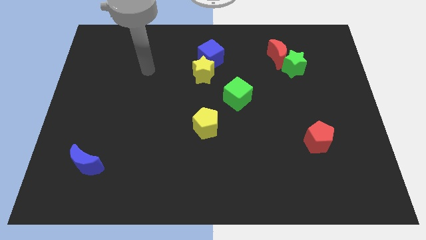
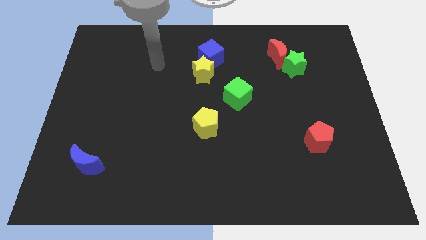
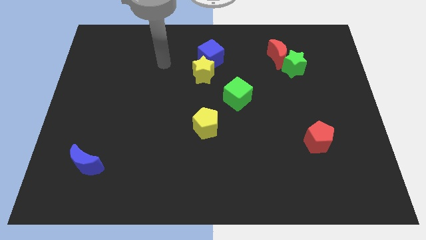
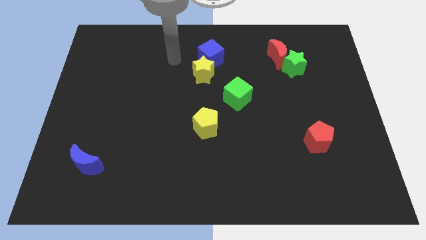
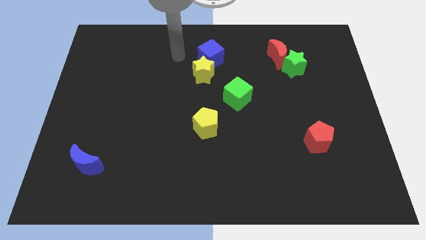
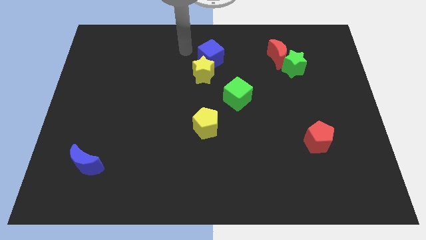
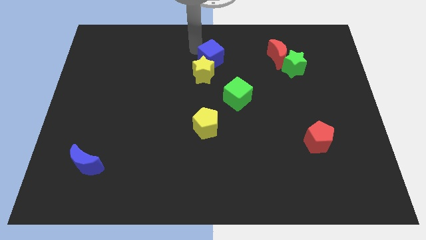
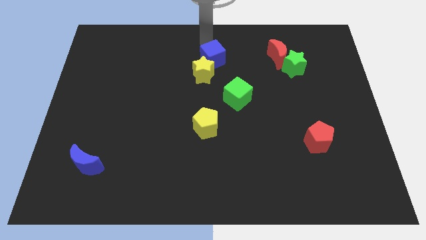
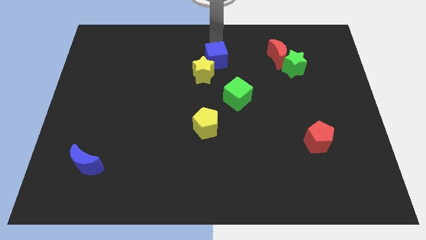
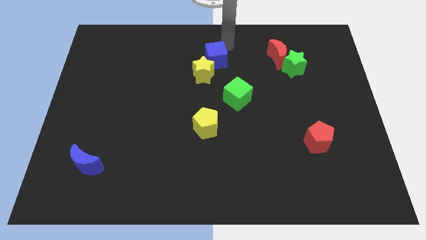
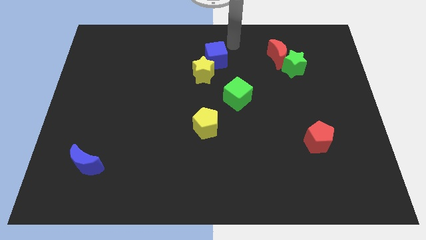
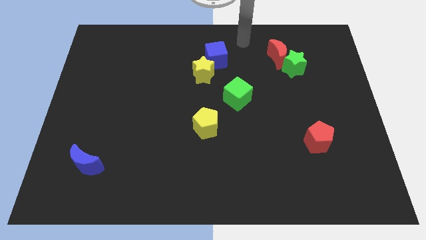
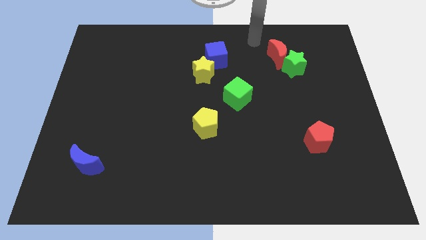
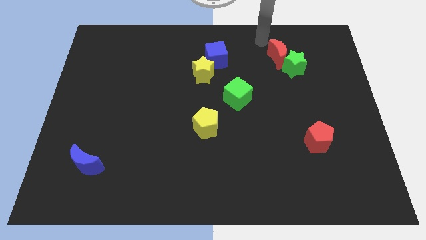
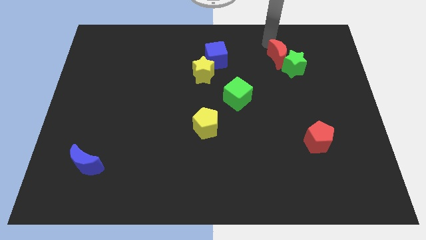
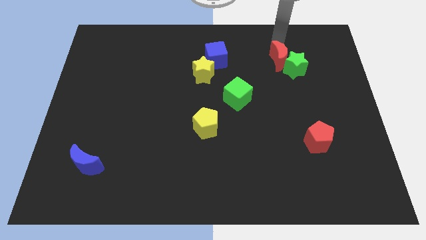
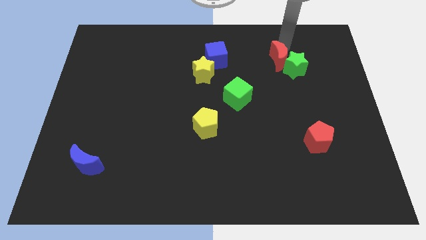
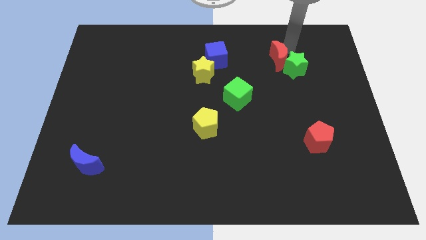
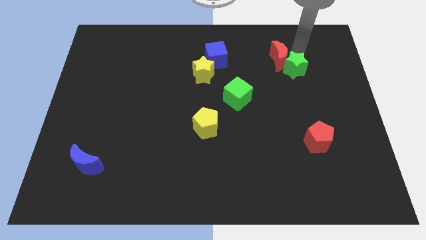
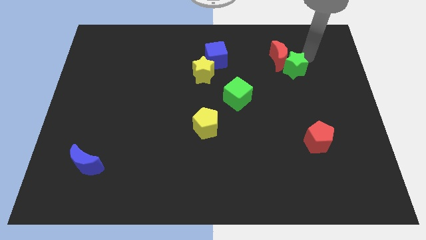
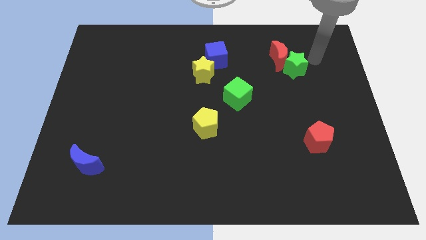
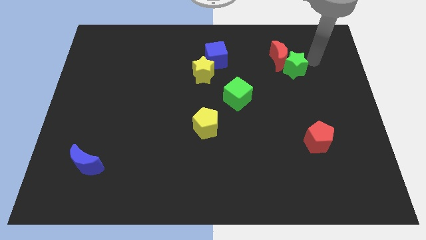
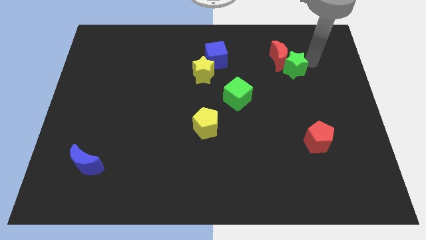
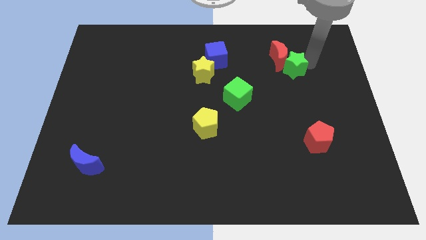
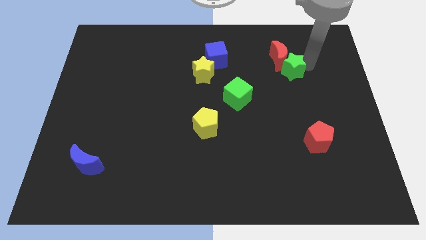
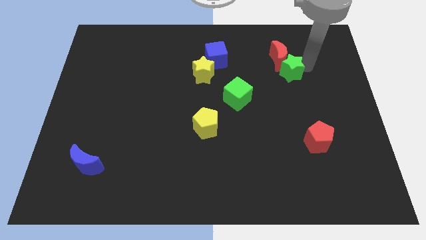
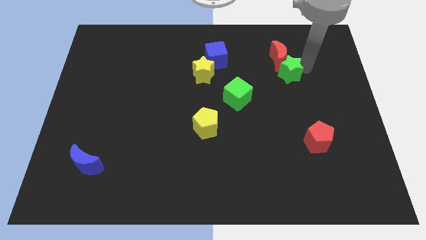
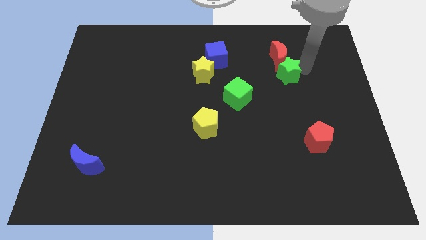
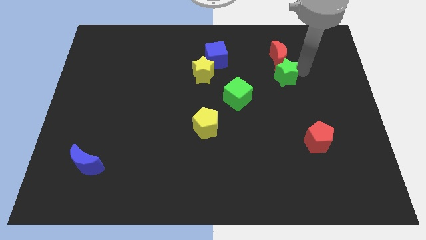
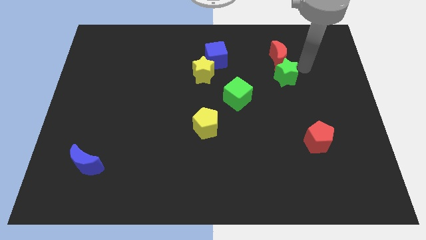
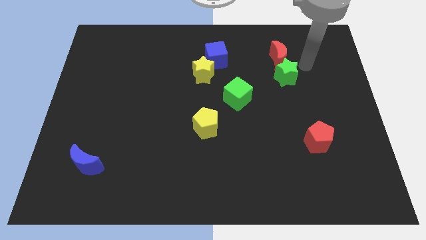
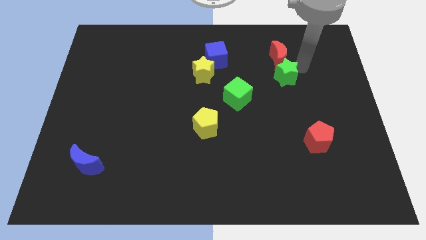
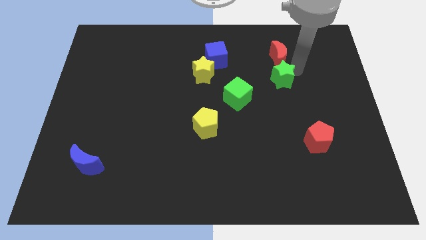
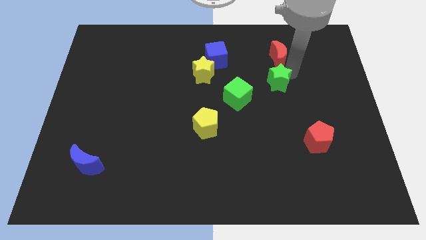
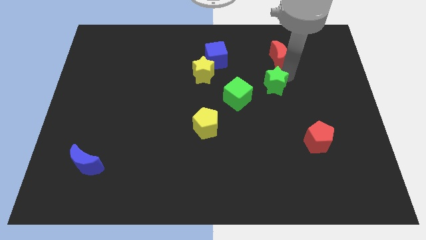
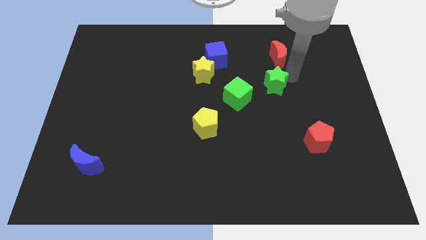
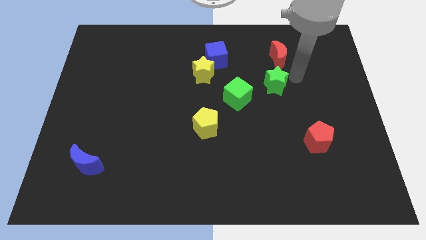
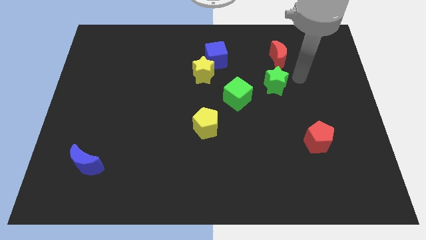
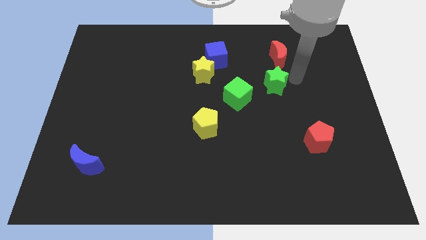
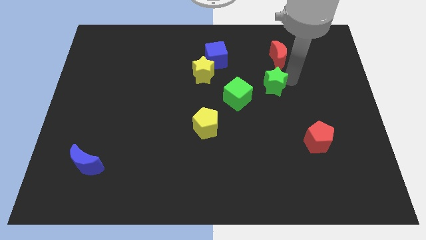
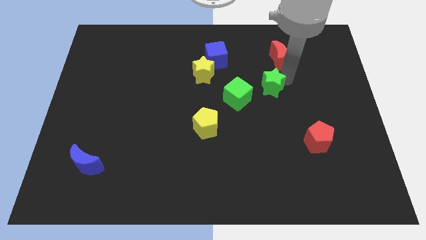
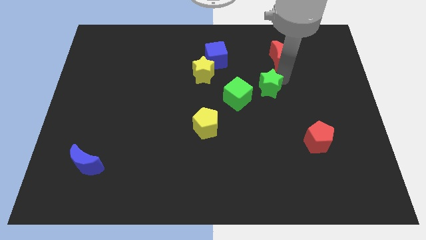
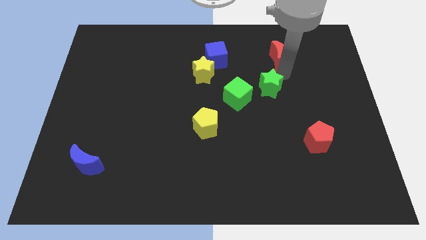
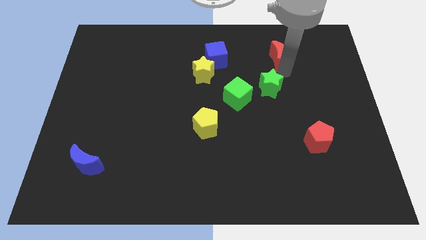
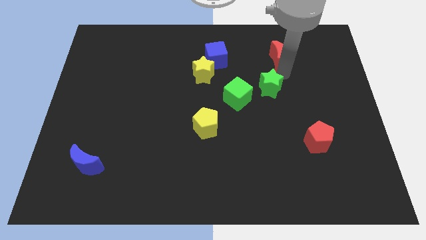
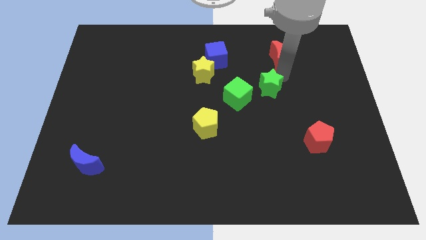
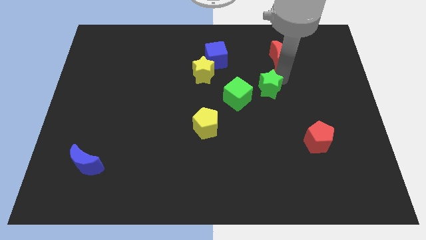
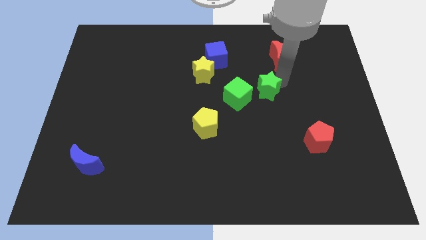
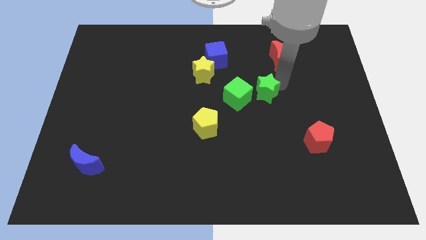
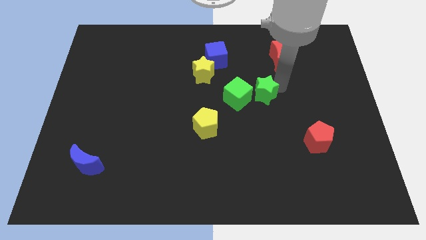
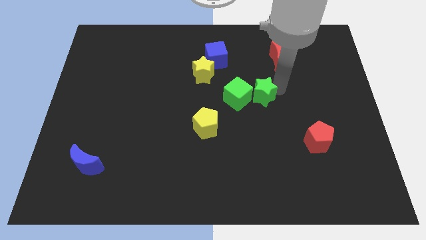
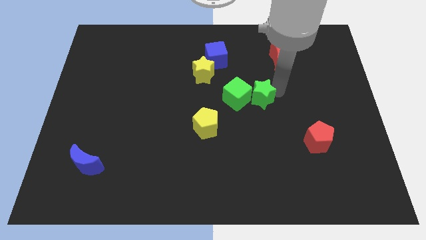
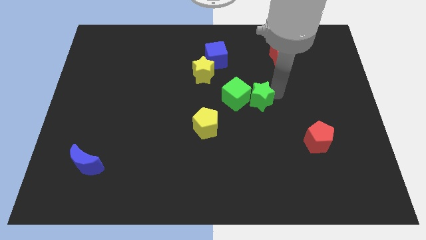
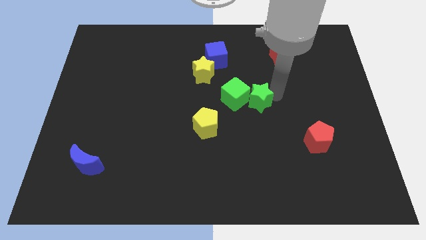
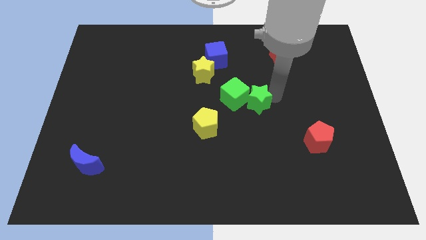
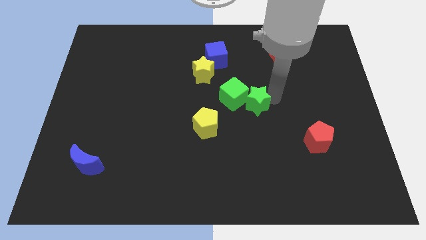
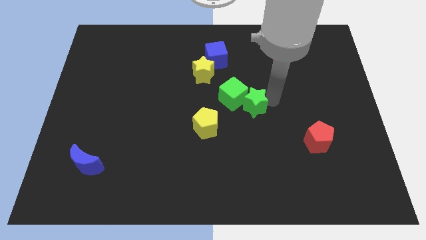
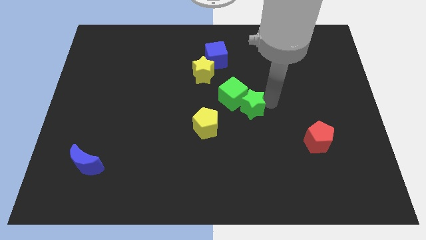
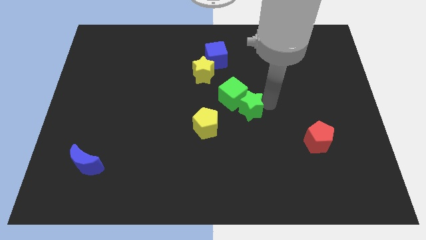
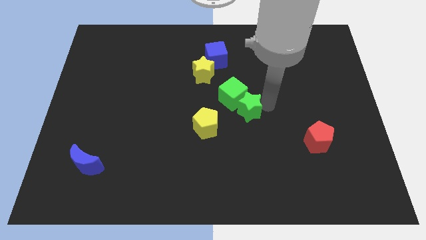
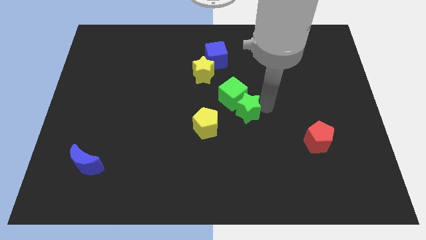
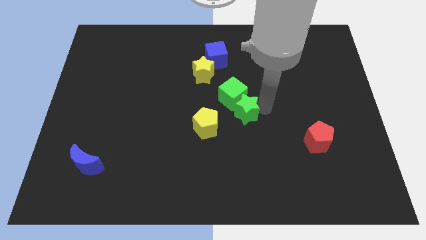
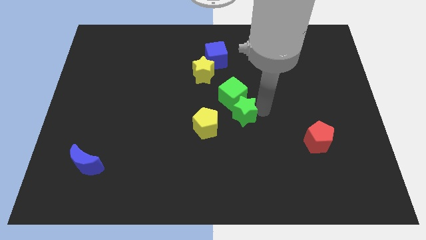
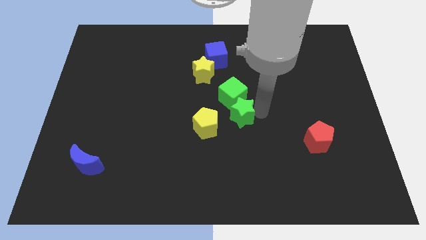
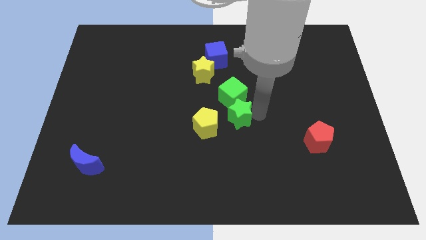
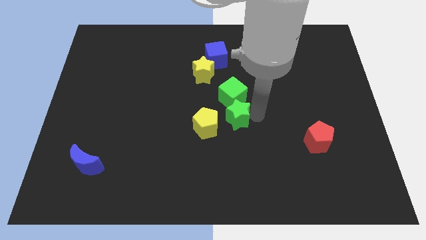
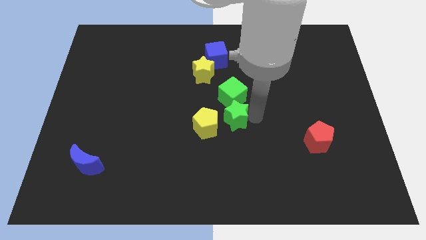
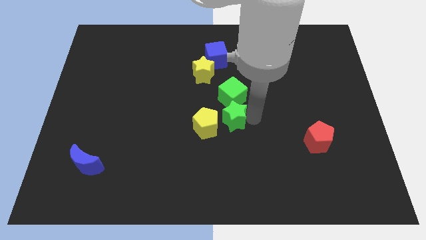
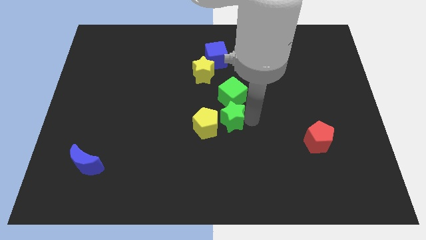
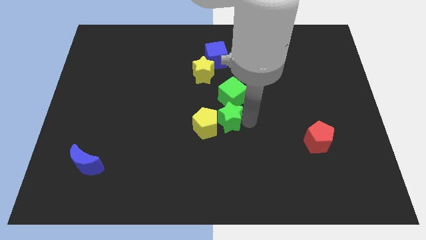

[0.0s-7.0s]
slide the green star to the yellow pentagon
